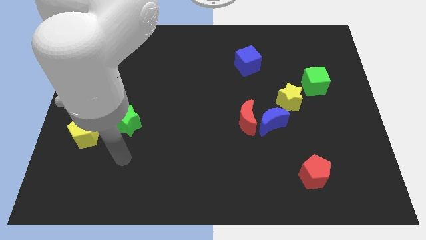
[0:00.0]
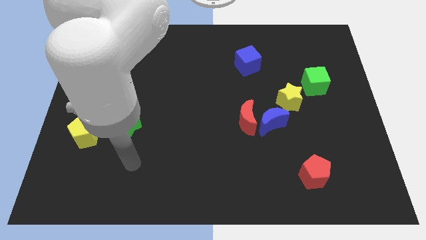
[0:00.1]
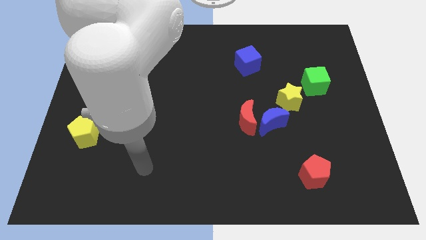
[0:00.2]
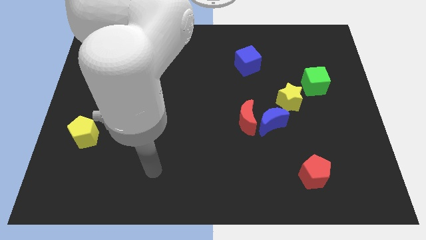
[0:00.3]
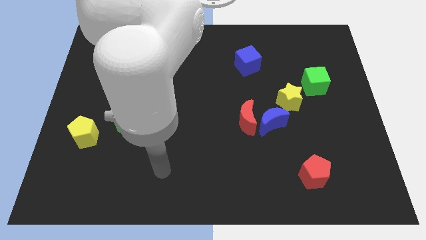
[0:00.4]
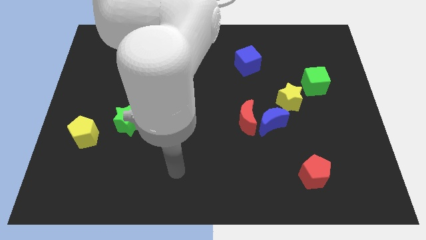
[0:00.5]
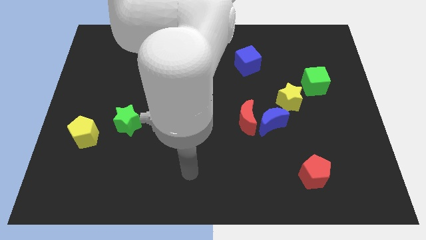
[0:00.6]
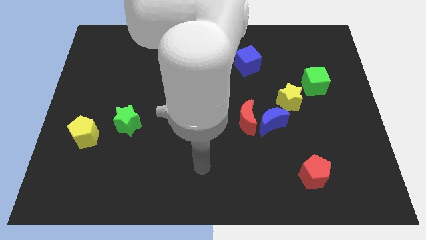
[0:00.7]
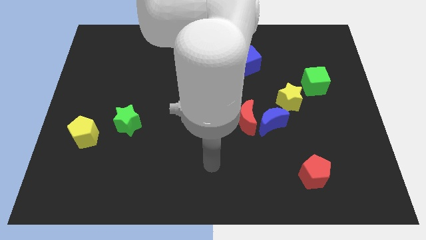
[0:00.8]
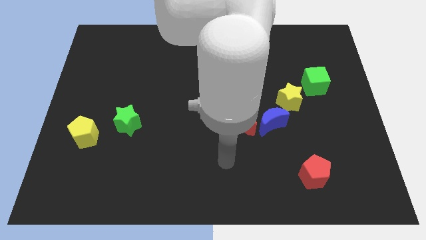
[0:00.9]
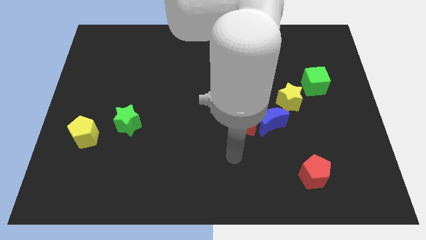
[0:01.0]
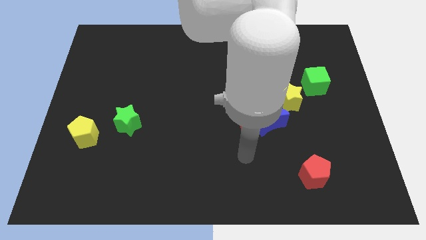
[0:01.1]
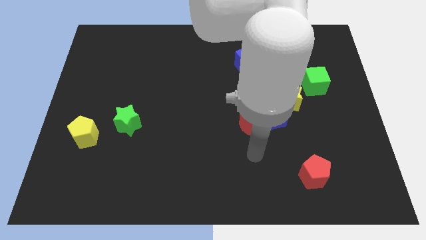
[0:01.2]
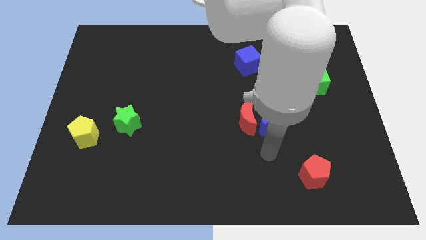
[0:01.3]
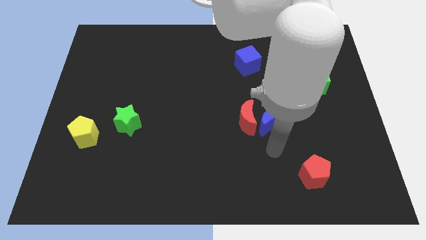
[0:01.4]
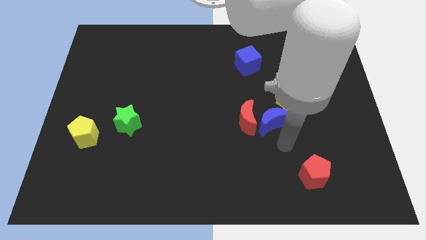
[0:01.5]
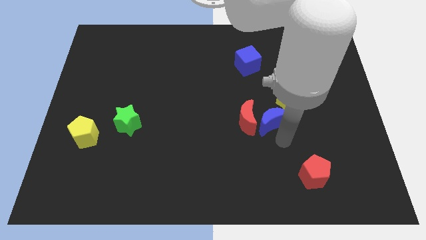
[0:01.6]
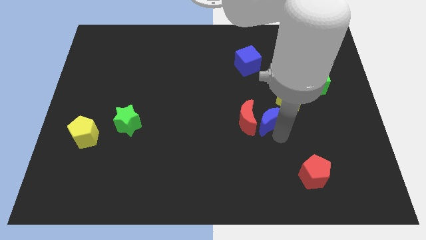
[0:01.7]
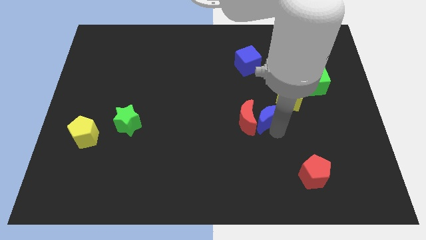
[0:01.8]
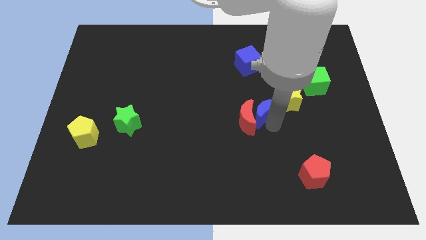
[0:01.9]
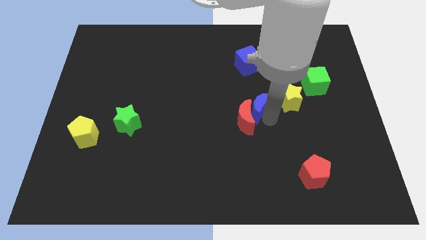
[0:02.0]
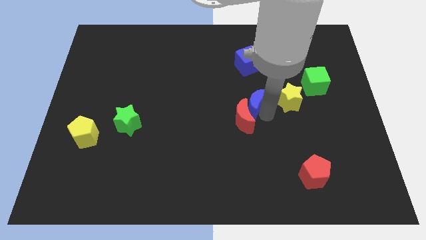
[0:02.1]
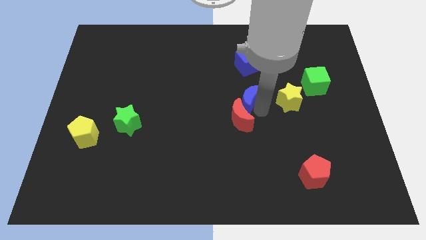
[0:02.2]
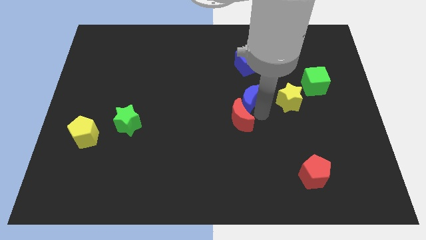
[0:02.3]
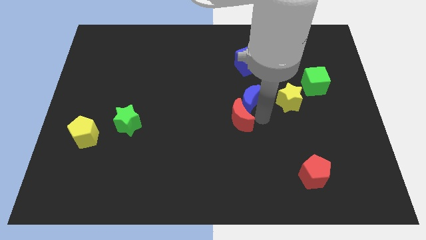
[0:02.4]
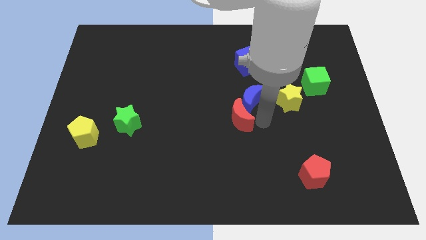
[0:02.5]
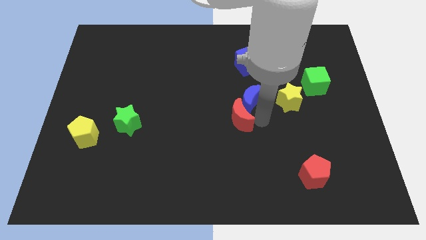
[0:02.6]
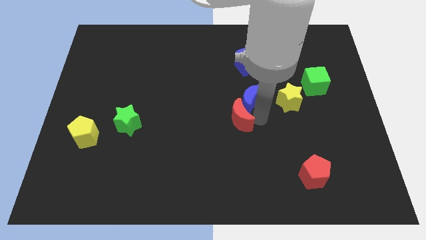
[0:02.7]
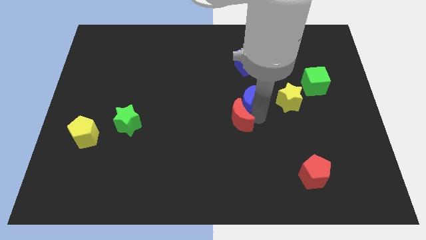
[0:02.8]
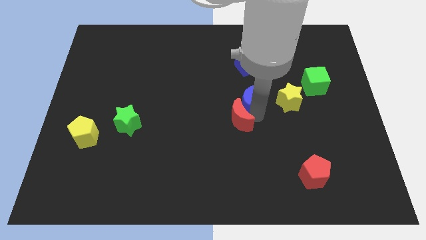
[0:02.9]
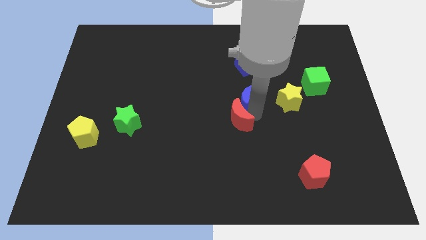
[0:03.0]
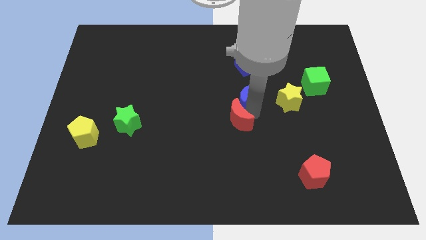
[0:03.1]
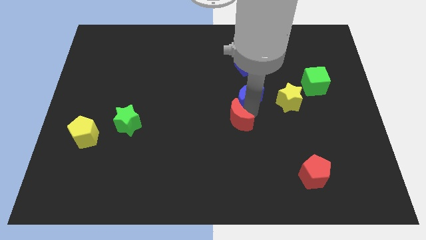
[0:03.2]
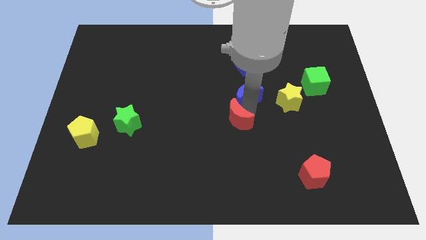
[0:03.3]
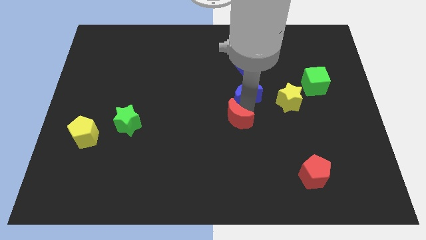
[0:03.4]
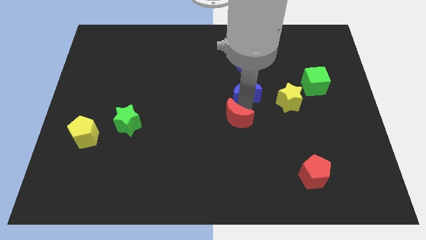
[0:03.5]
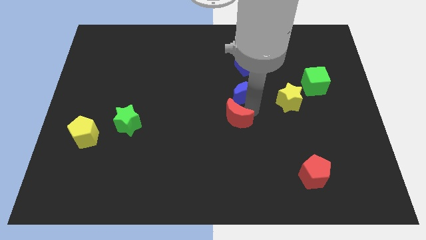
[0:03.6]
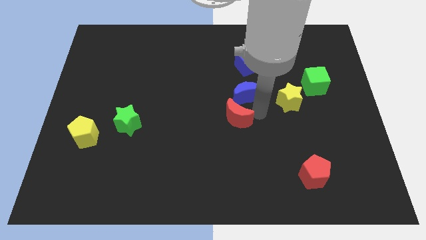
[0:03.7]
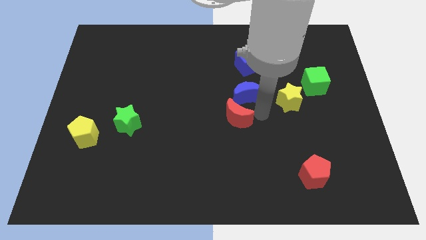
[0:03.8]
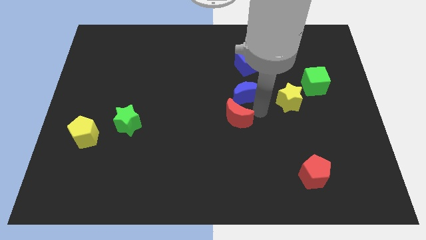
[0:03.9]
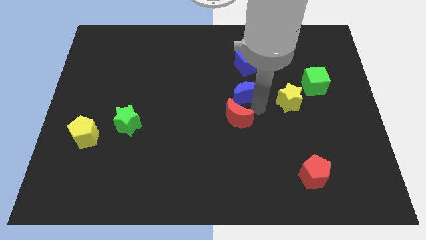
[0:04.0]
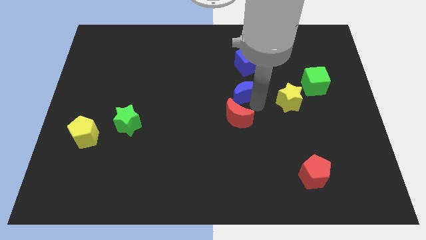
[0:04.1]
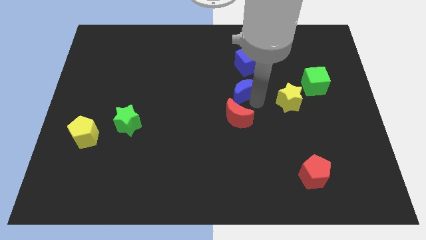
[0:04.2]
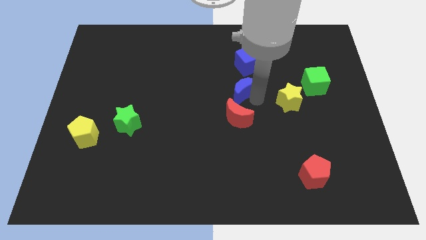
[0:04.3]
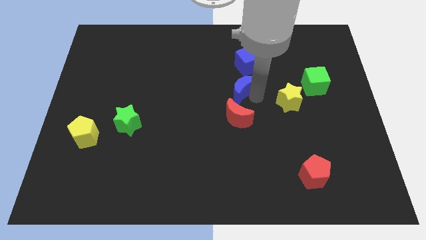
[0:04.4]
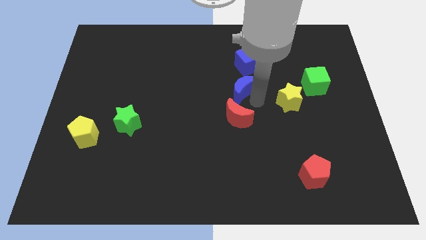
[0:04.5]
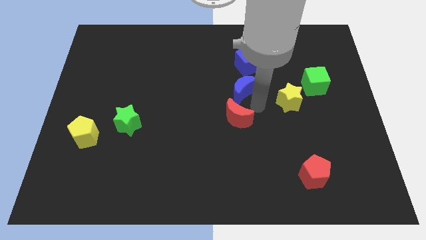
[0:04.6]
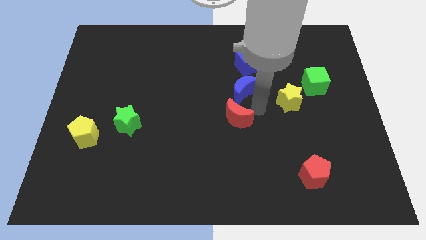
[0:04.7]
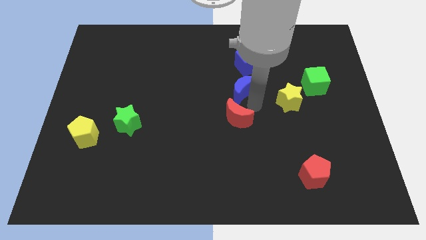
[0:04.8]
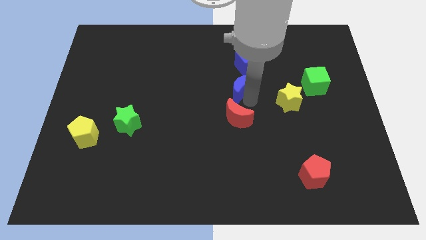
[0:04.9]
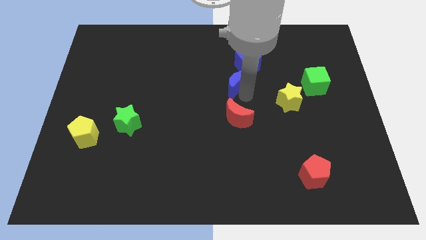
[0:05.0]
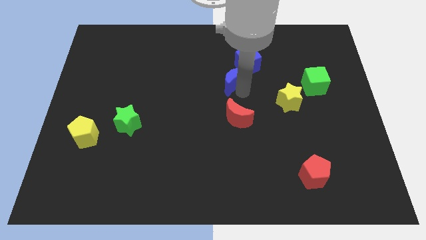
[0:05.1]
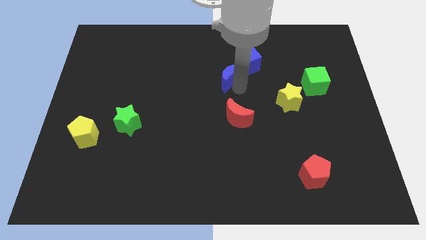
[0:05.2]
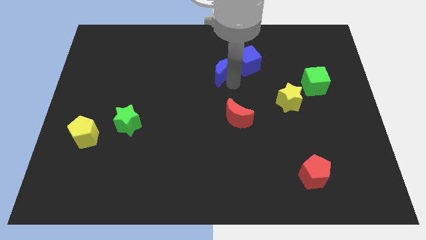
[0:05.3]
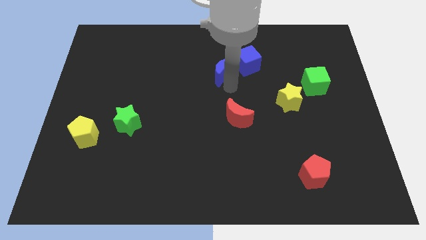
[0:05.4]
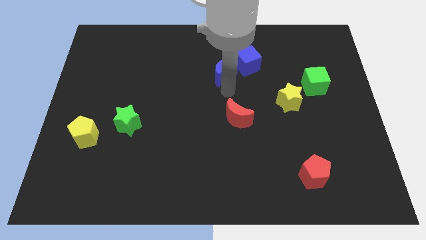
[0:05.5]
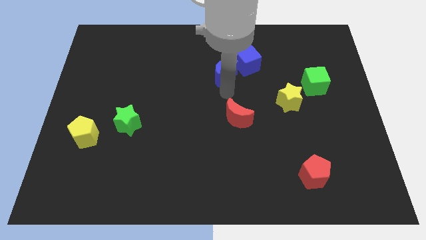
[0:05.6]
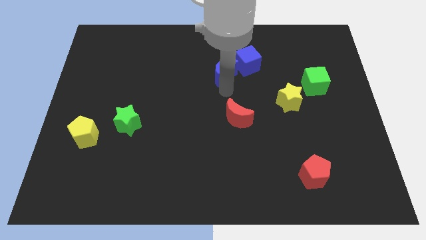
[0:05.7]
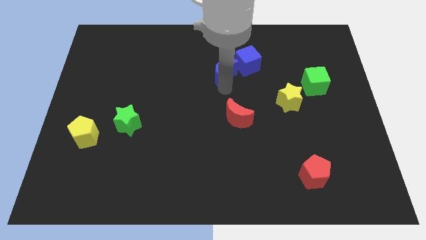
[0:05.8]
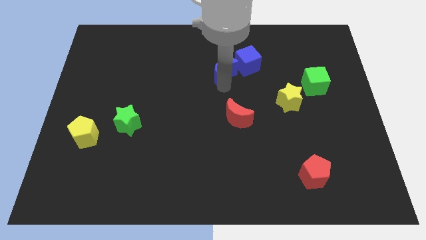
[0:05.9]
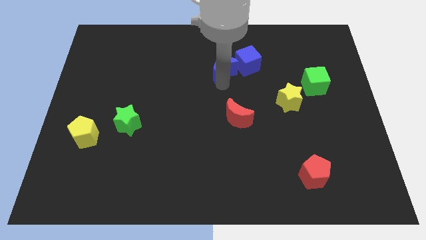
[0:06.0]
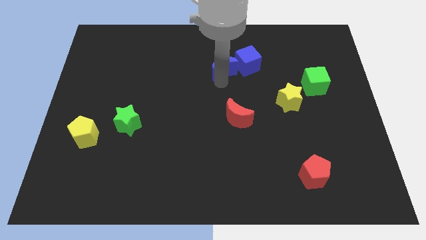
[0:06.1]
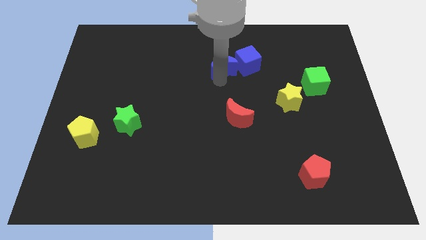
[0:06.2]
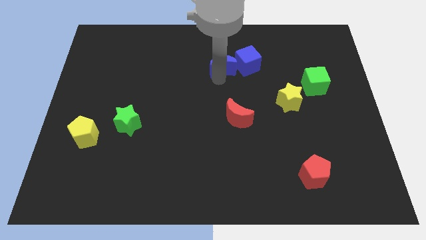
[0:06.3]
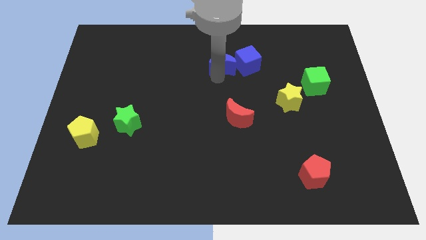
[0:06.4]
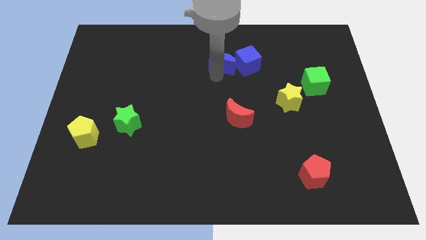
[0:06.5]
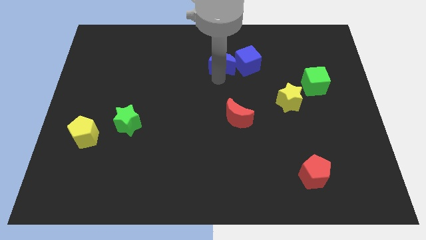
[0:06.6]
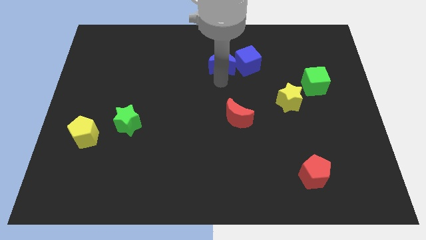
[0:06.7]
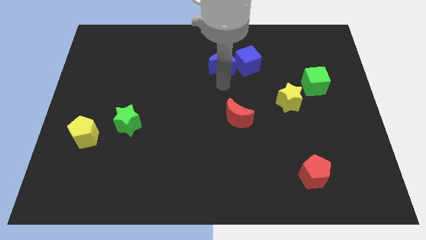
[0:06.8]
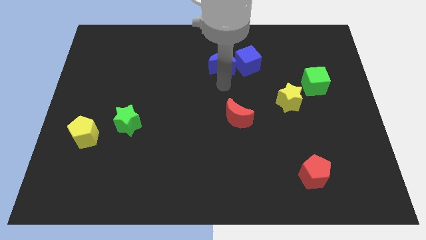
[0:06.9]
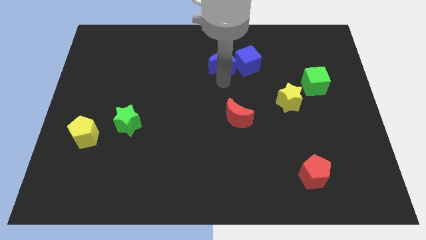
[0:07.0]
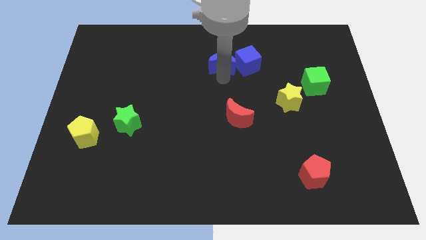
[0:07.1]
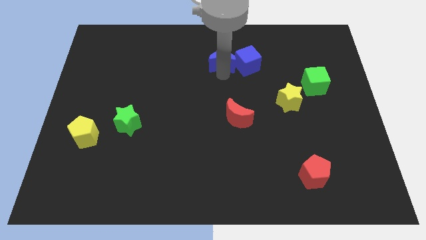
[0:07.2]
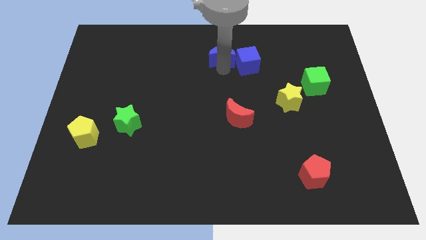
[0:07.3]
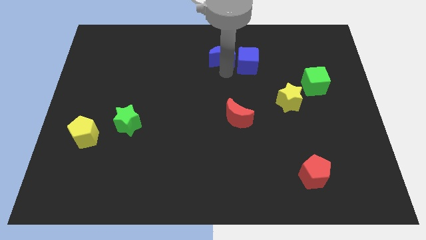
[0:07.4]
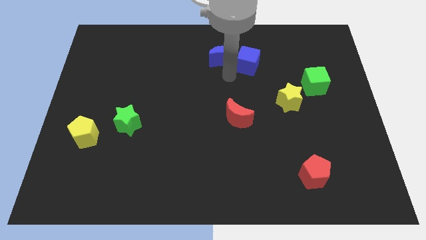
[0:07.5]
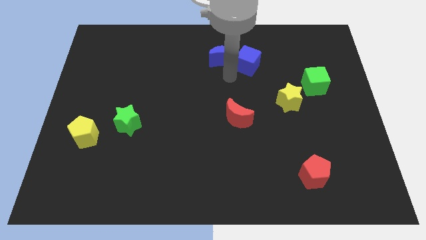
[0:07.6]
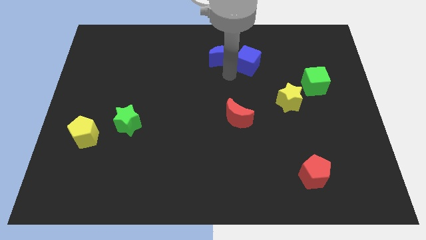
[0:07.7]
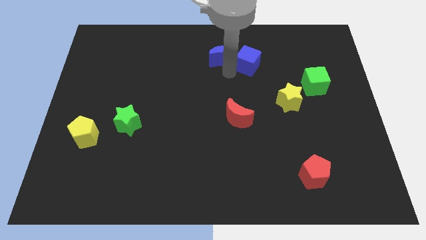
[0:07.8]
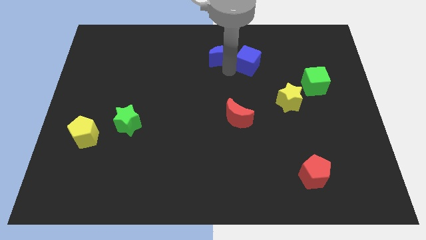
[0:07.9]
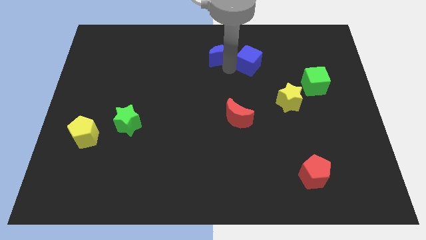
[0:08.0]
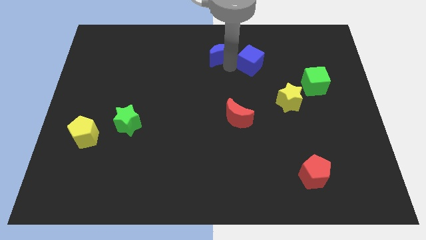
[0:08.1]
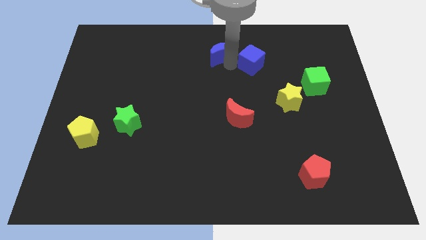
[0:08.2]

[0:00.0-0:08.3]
move the blue moon to the towards your base
